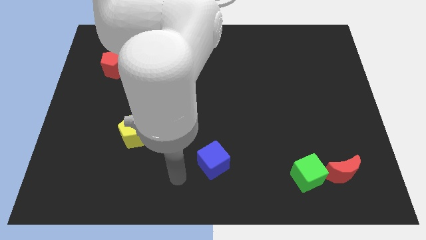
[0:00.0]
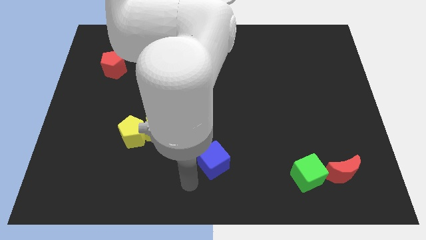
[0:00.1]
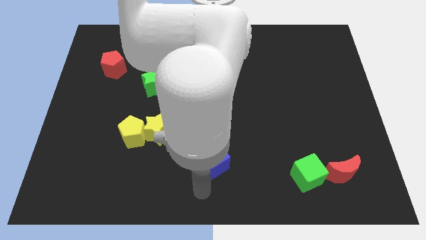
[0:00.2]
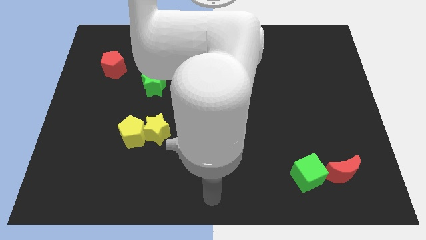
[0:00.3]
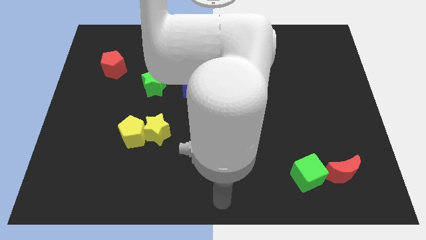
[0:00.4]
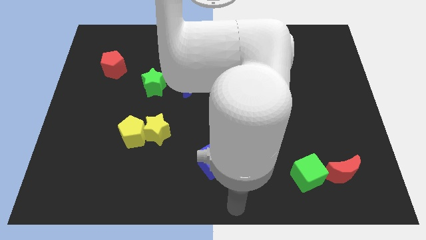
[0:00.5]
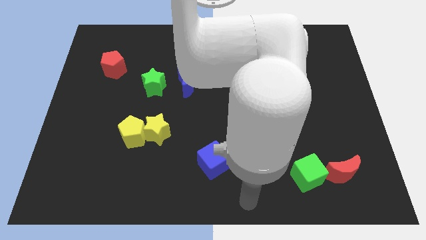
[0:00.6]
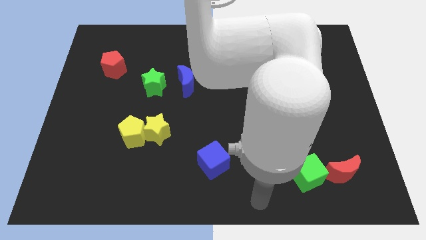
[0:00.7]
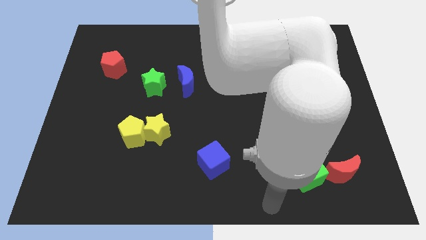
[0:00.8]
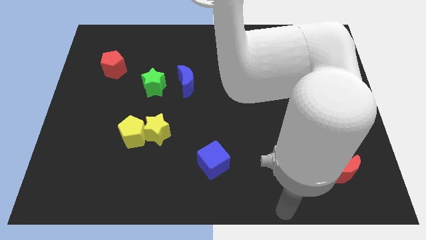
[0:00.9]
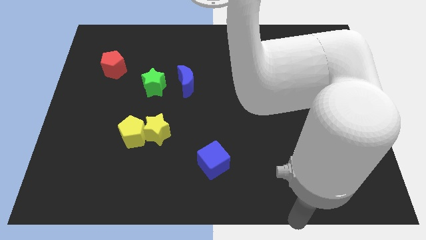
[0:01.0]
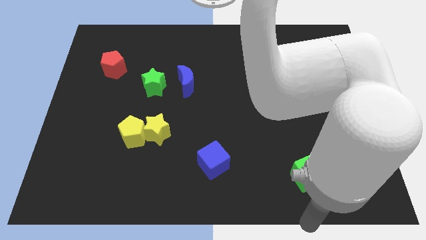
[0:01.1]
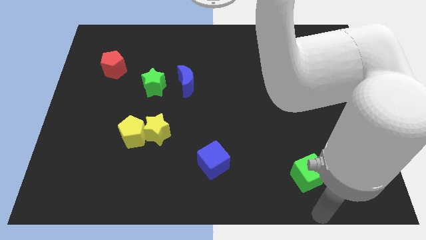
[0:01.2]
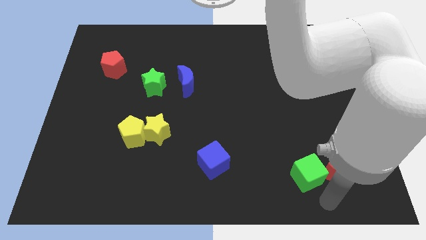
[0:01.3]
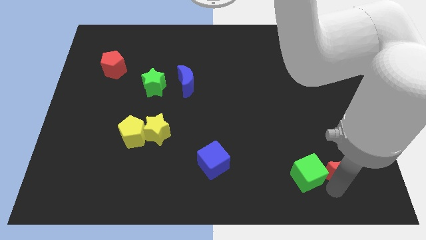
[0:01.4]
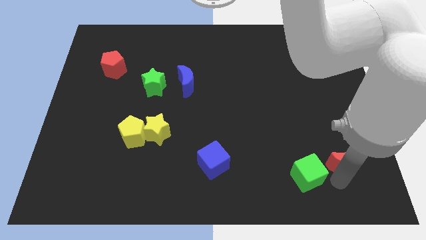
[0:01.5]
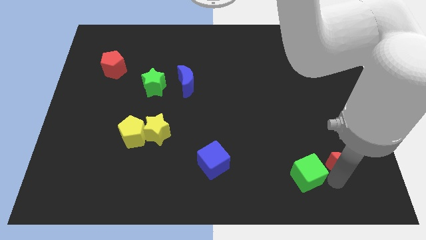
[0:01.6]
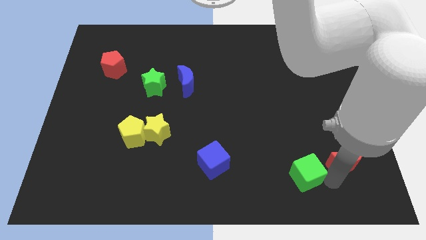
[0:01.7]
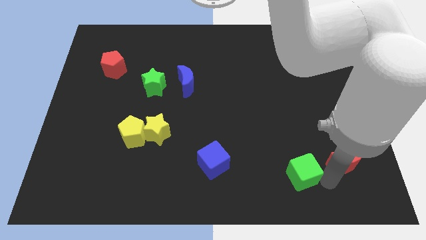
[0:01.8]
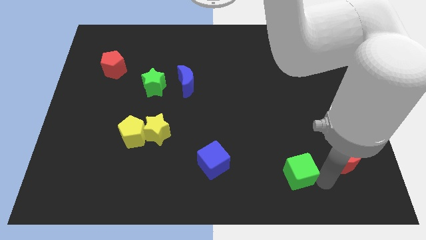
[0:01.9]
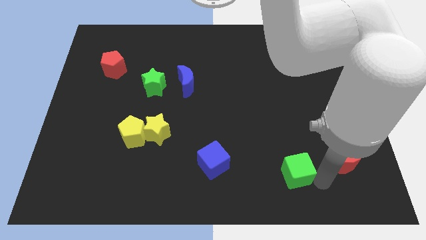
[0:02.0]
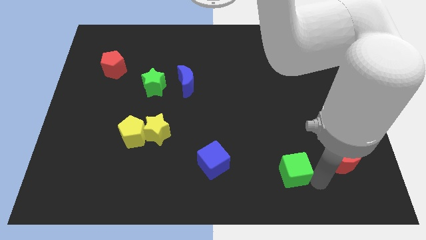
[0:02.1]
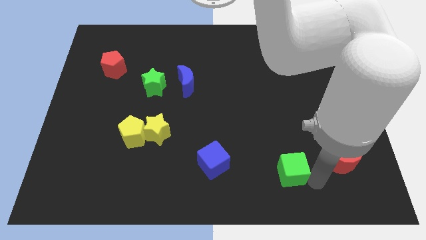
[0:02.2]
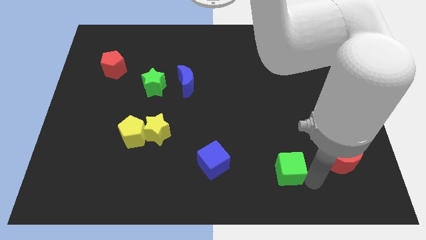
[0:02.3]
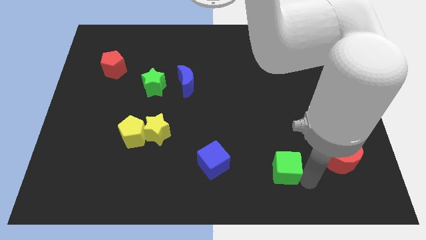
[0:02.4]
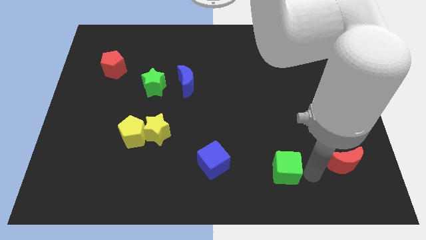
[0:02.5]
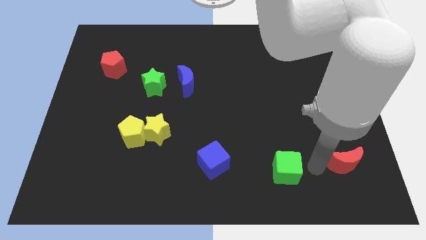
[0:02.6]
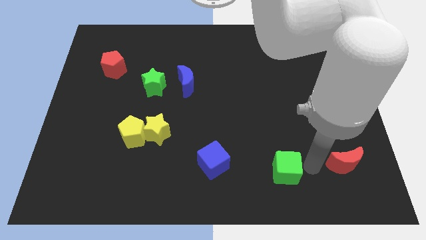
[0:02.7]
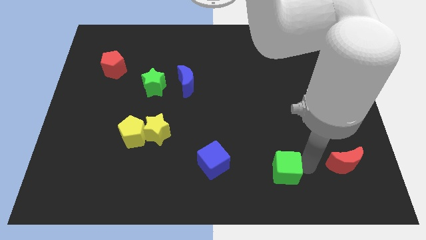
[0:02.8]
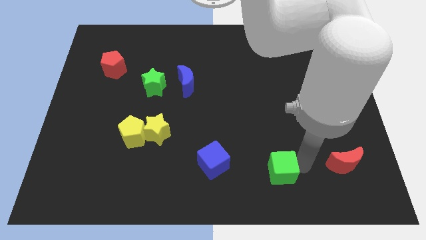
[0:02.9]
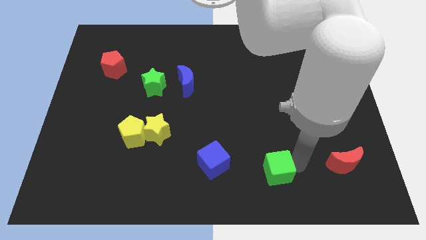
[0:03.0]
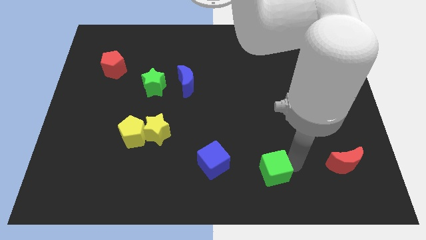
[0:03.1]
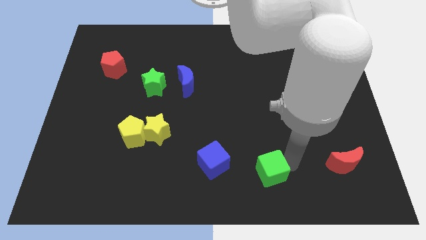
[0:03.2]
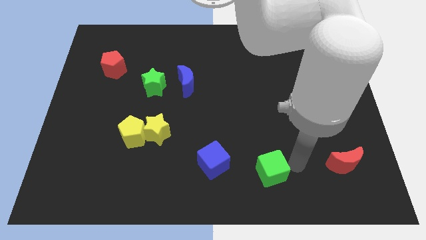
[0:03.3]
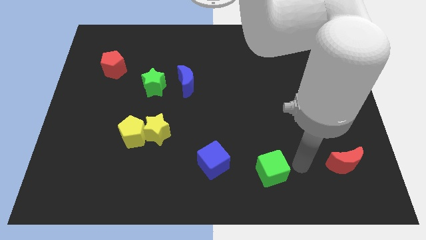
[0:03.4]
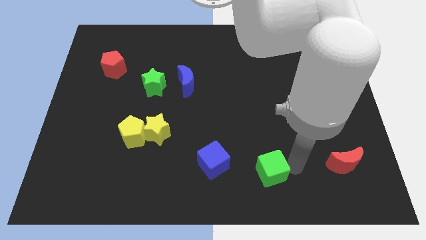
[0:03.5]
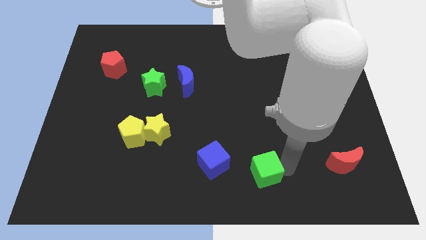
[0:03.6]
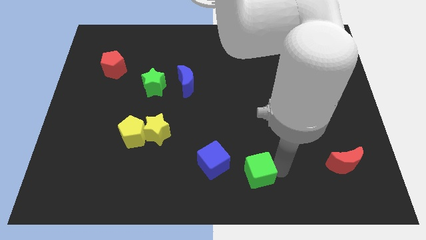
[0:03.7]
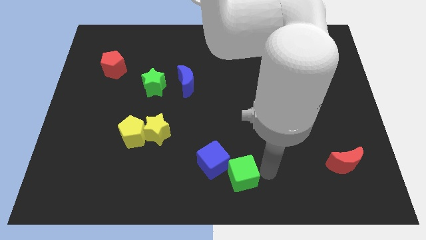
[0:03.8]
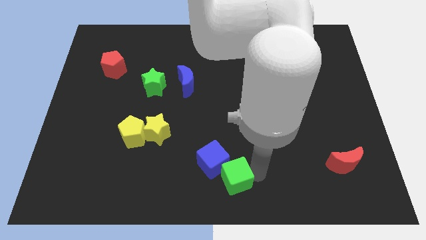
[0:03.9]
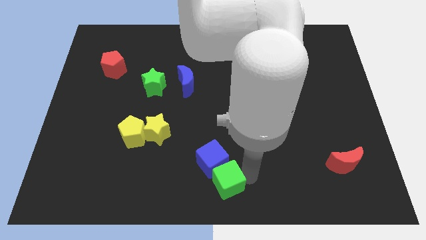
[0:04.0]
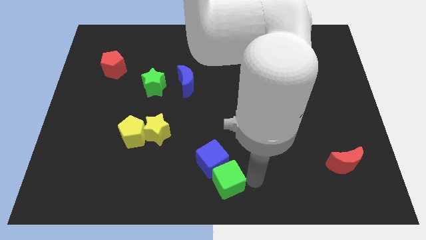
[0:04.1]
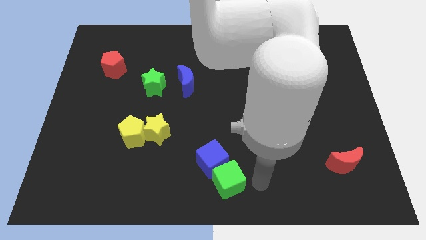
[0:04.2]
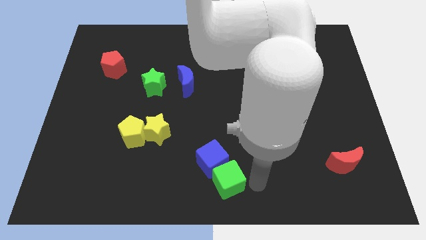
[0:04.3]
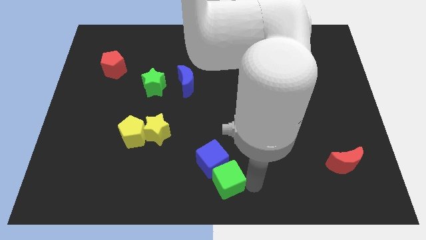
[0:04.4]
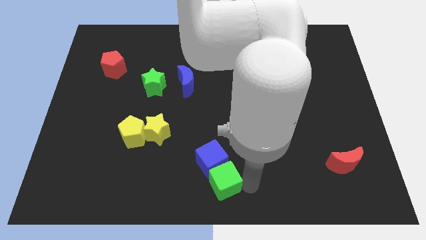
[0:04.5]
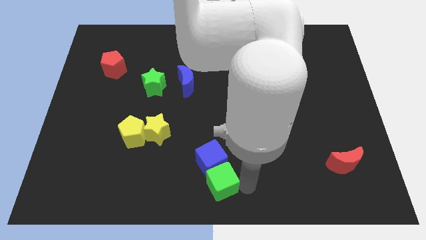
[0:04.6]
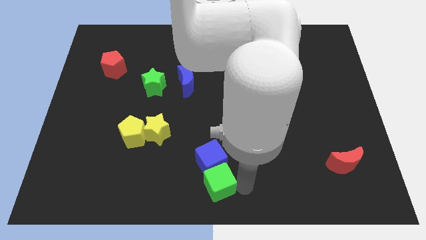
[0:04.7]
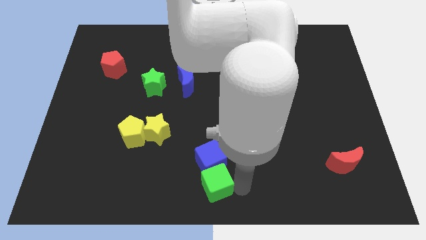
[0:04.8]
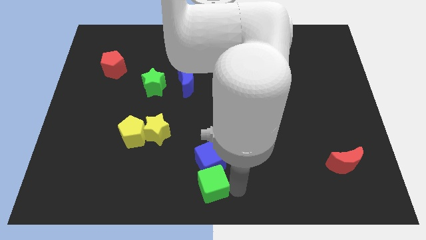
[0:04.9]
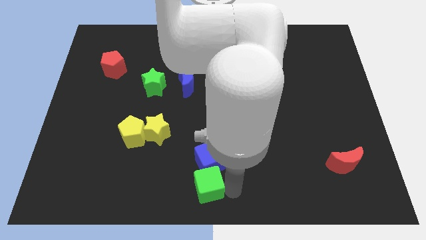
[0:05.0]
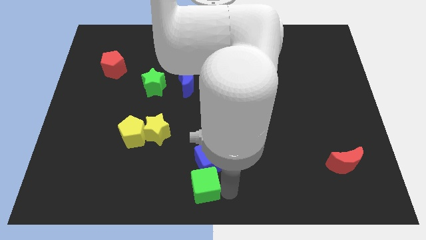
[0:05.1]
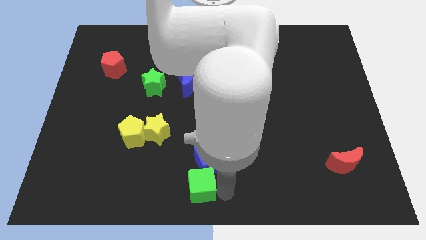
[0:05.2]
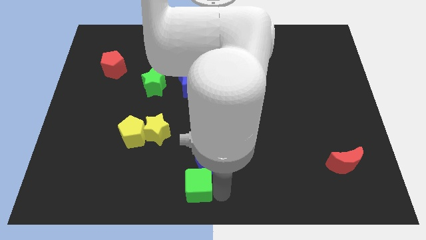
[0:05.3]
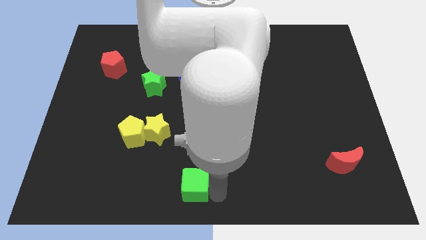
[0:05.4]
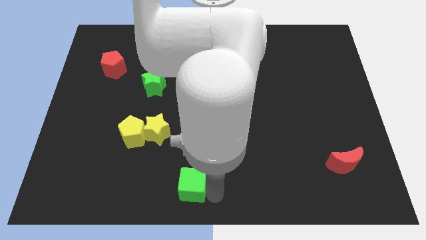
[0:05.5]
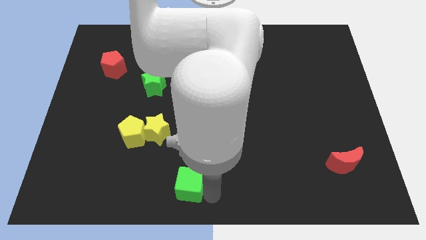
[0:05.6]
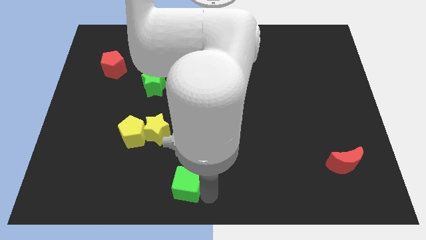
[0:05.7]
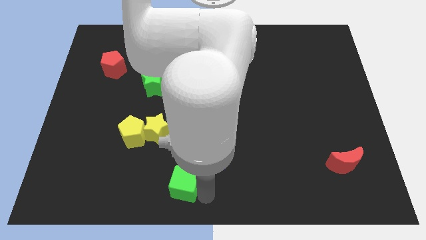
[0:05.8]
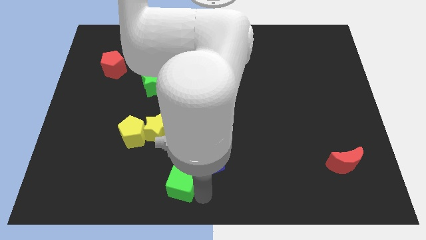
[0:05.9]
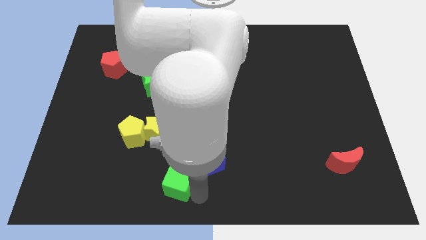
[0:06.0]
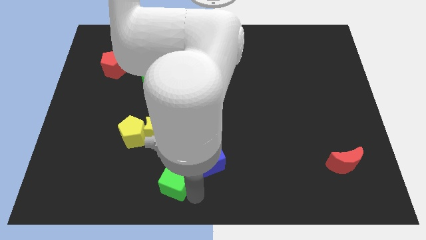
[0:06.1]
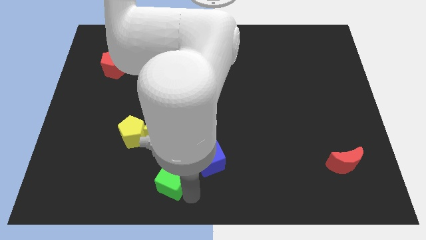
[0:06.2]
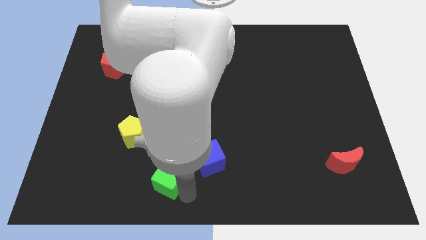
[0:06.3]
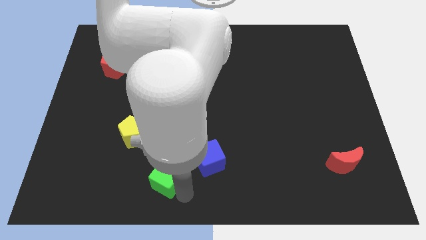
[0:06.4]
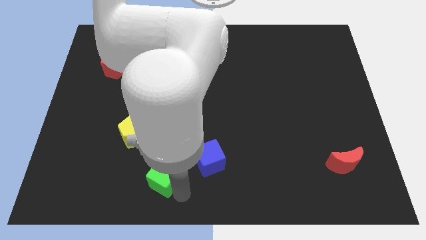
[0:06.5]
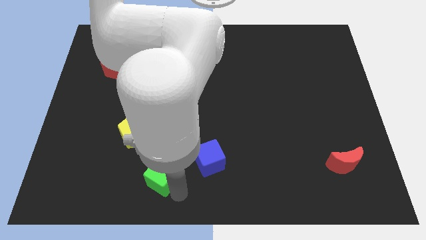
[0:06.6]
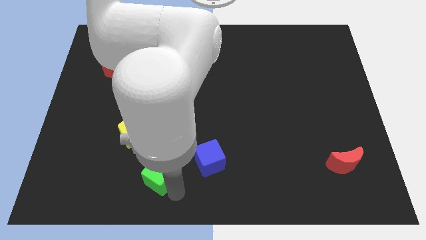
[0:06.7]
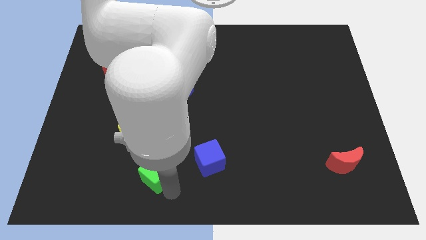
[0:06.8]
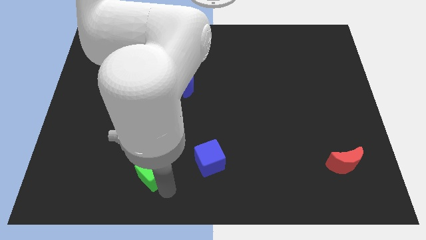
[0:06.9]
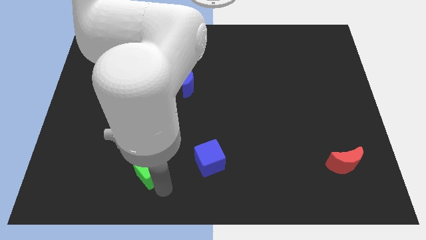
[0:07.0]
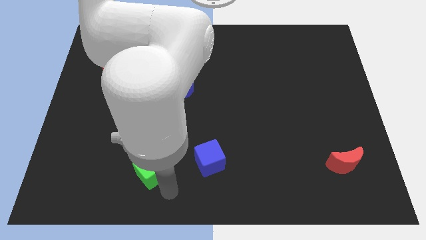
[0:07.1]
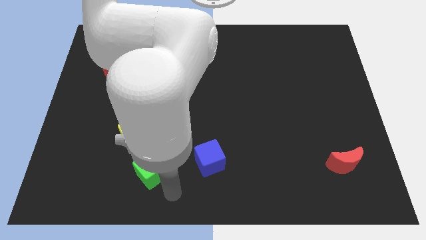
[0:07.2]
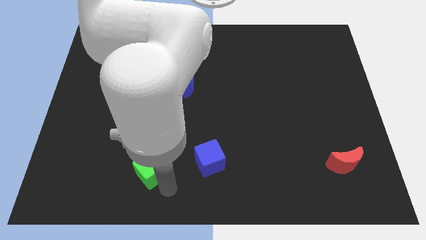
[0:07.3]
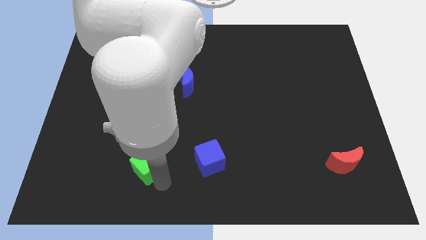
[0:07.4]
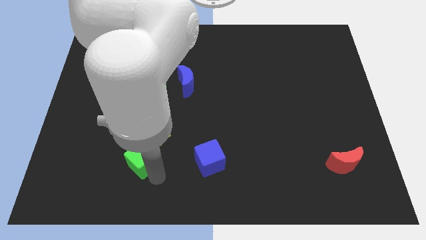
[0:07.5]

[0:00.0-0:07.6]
slide the green cube to the bottom left of the yellow star

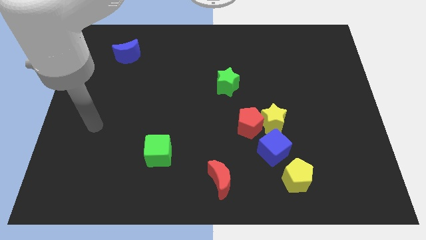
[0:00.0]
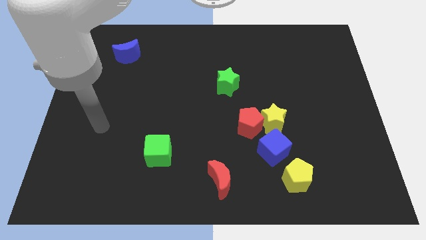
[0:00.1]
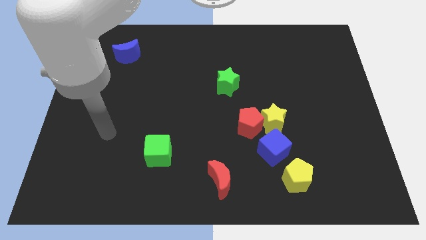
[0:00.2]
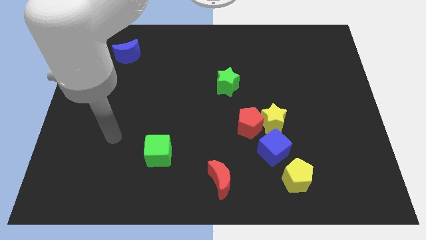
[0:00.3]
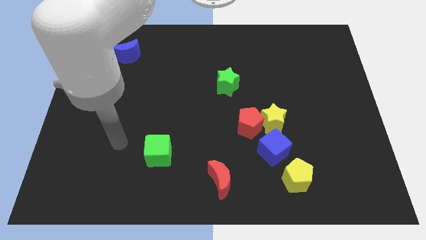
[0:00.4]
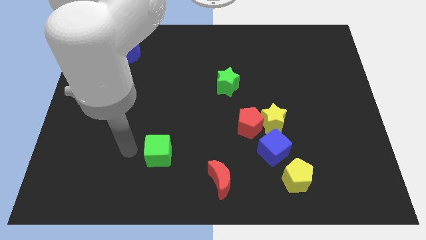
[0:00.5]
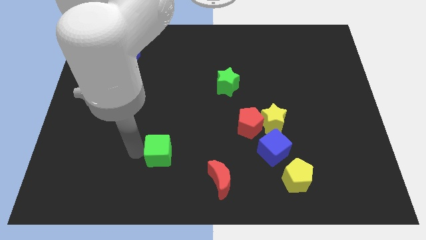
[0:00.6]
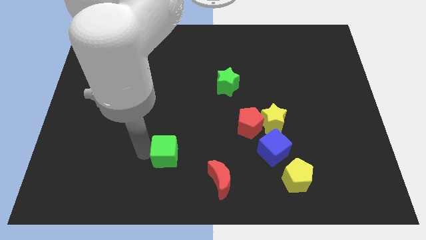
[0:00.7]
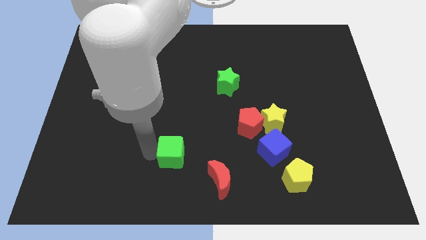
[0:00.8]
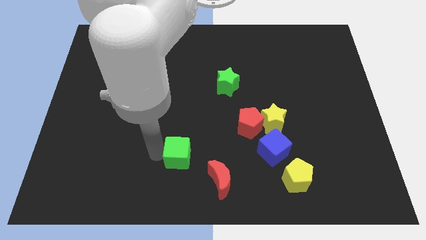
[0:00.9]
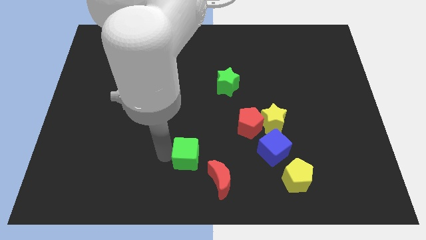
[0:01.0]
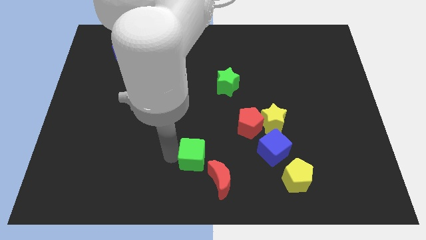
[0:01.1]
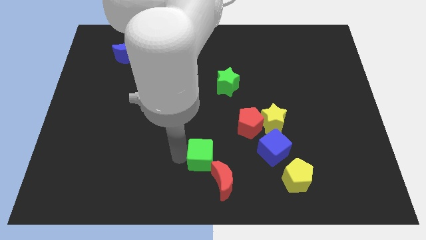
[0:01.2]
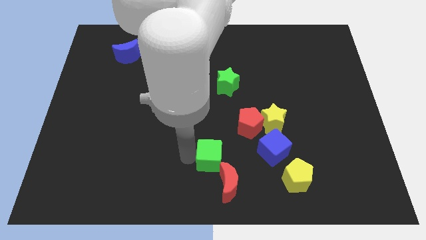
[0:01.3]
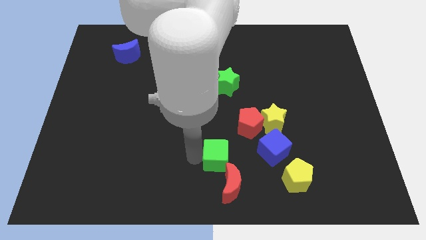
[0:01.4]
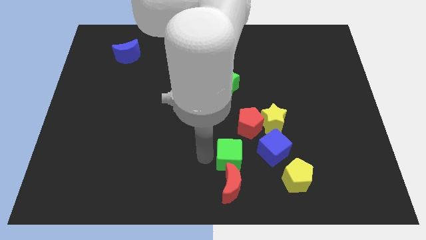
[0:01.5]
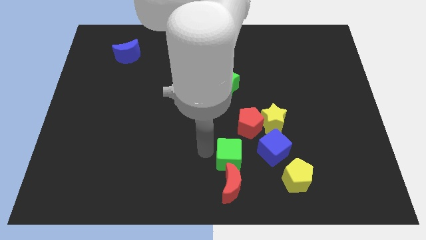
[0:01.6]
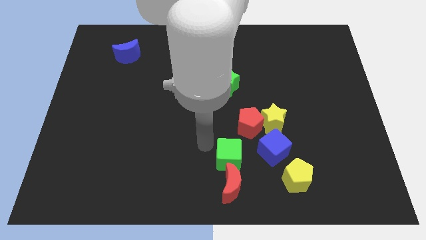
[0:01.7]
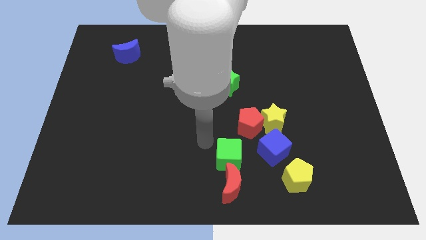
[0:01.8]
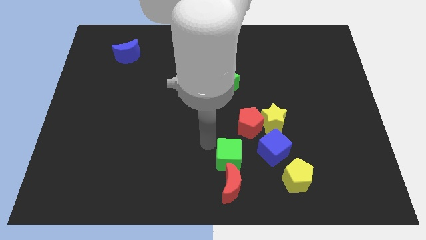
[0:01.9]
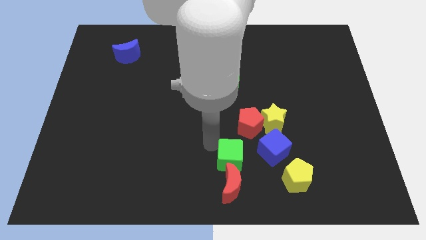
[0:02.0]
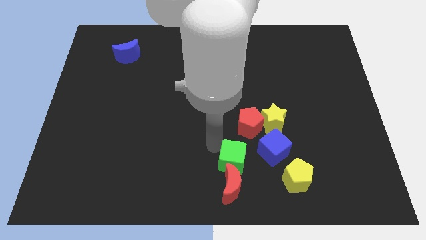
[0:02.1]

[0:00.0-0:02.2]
slide the green cube to the bottom left of the blue cube
